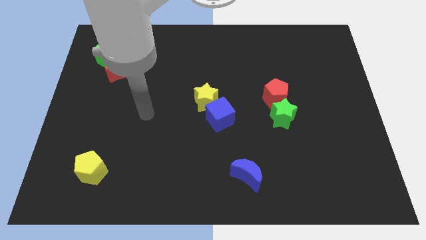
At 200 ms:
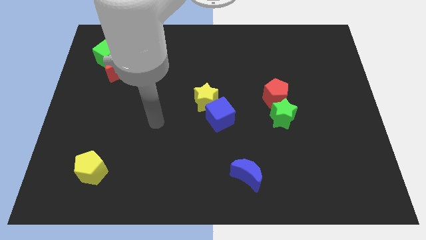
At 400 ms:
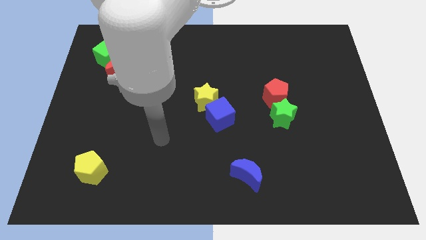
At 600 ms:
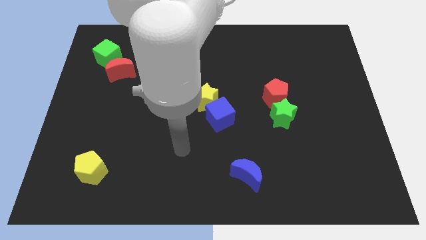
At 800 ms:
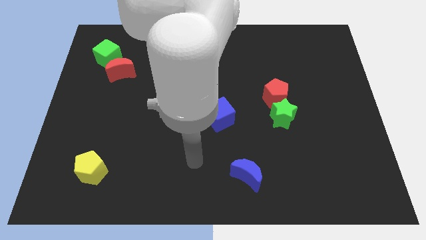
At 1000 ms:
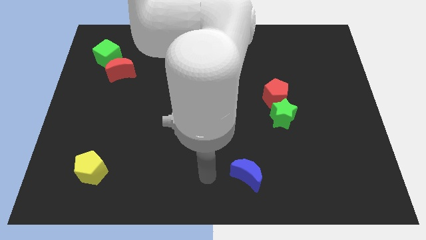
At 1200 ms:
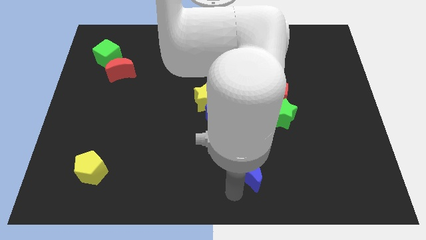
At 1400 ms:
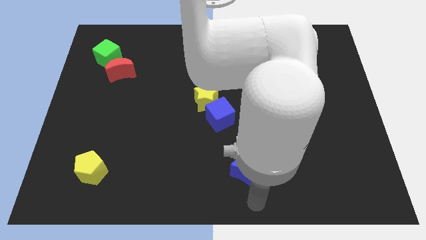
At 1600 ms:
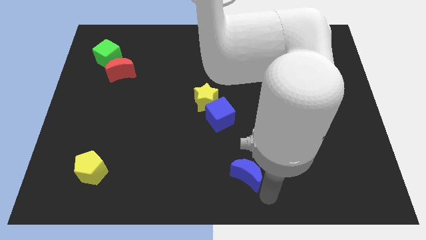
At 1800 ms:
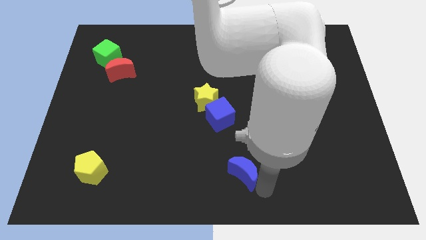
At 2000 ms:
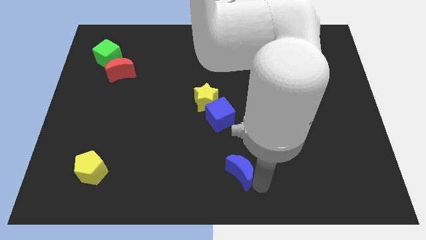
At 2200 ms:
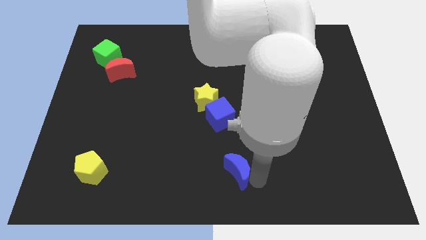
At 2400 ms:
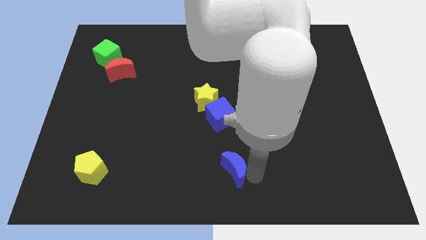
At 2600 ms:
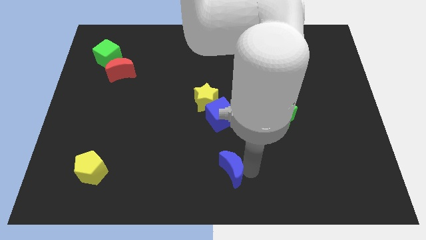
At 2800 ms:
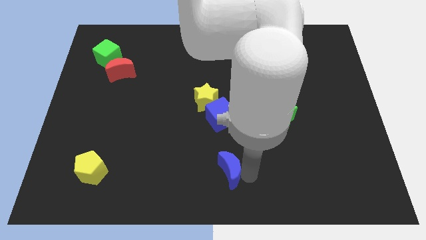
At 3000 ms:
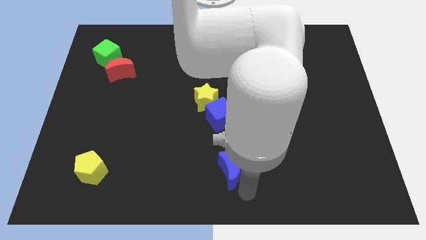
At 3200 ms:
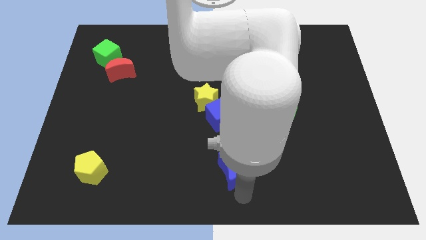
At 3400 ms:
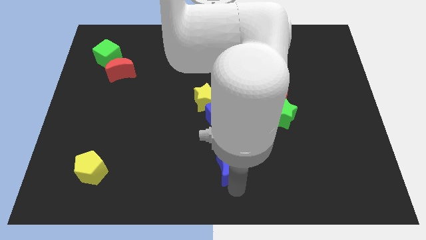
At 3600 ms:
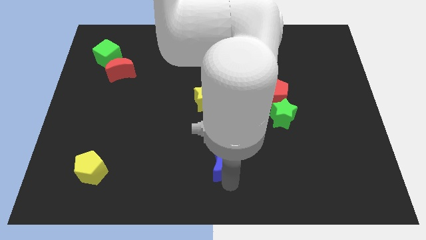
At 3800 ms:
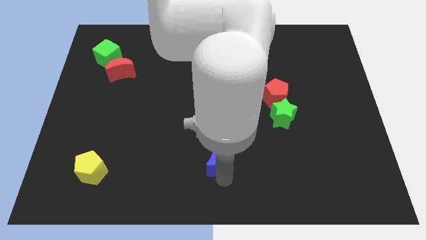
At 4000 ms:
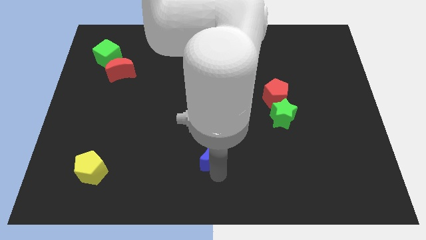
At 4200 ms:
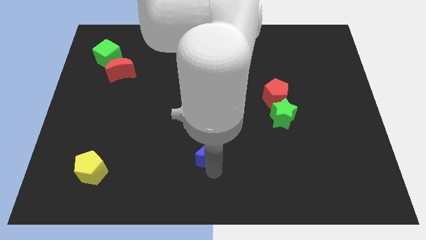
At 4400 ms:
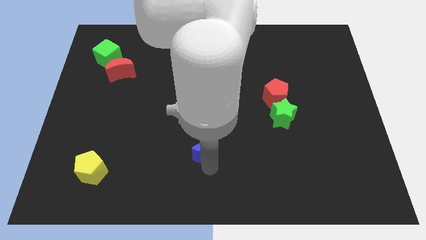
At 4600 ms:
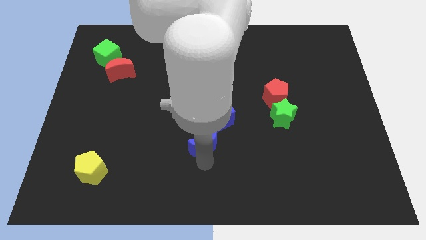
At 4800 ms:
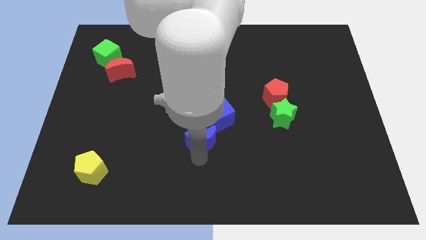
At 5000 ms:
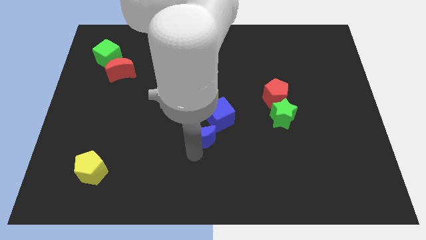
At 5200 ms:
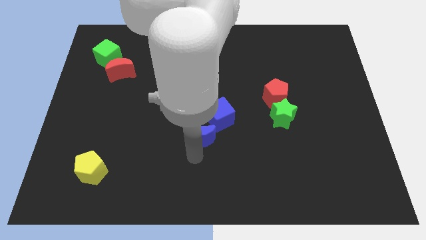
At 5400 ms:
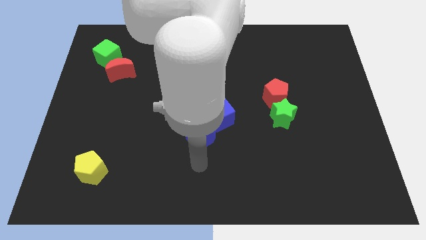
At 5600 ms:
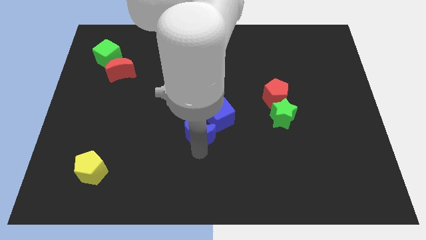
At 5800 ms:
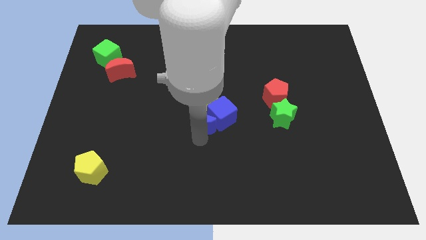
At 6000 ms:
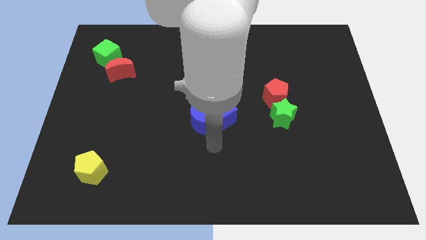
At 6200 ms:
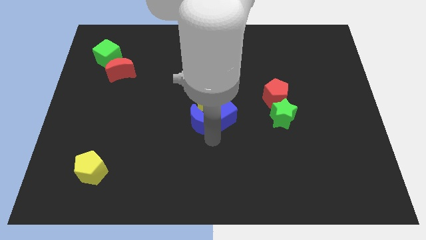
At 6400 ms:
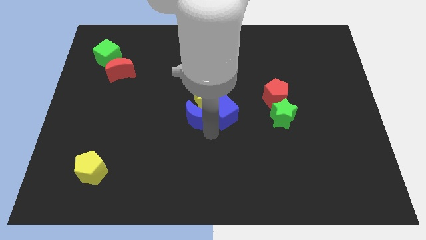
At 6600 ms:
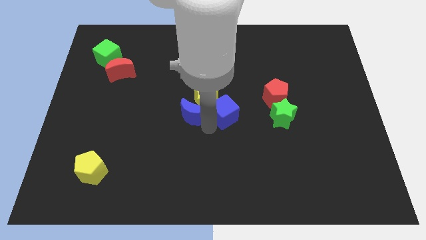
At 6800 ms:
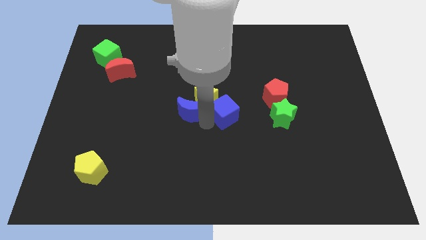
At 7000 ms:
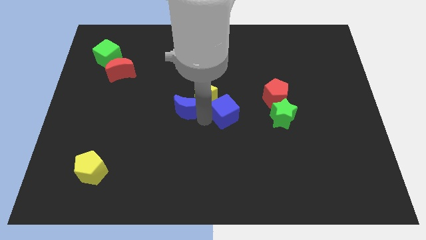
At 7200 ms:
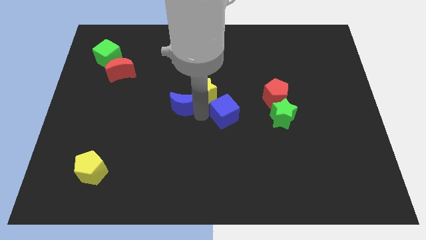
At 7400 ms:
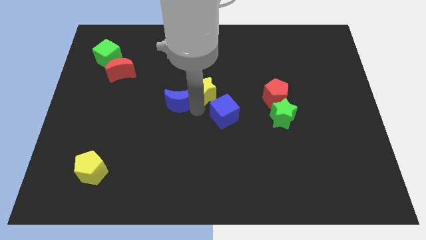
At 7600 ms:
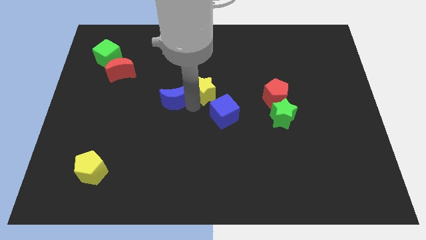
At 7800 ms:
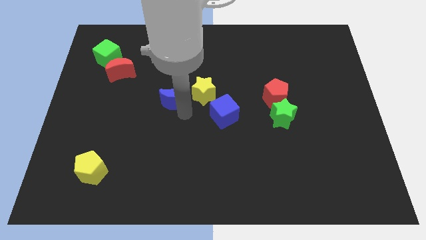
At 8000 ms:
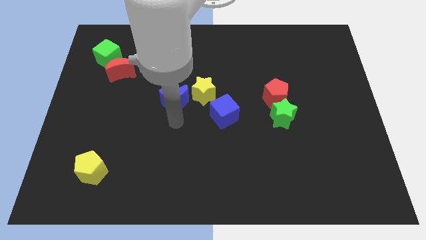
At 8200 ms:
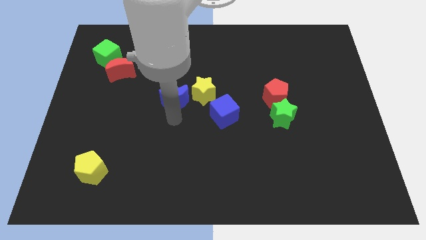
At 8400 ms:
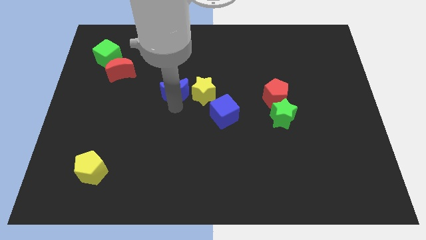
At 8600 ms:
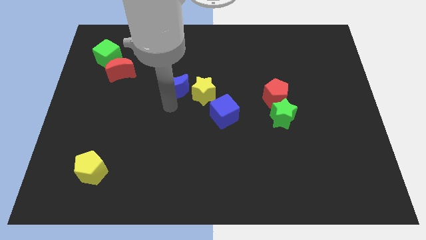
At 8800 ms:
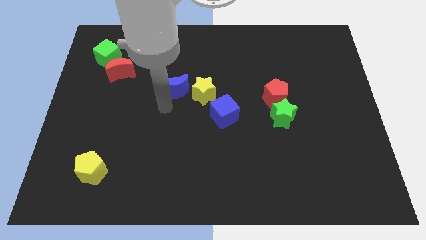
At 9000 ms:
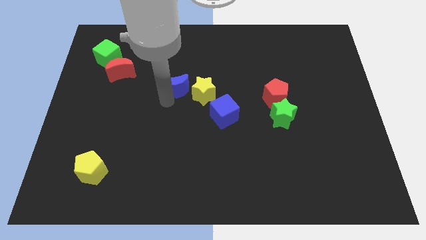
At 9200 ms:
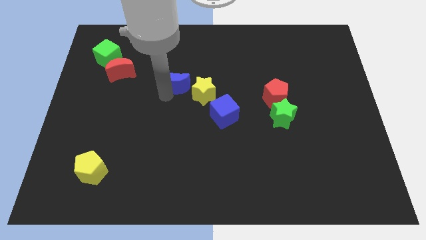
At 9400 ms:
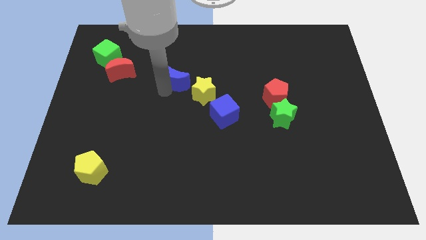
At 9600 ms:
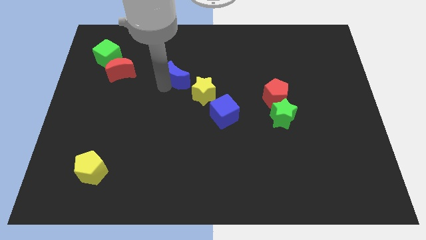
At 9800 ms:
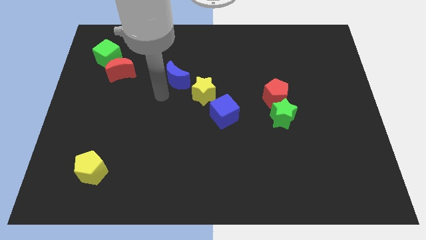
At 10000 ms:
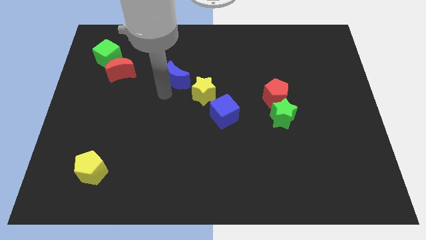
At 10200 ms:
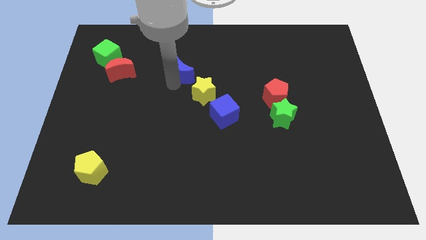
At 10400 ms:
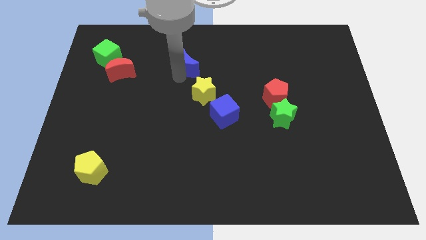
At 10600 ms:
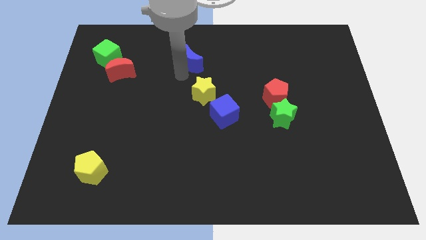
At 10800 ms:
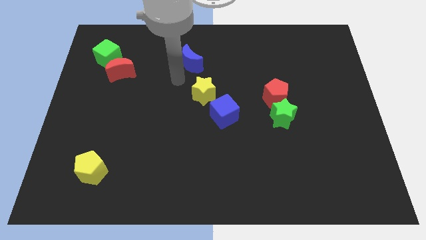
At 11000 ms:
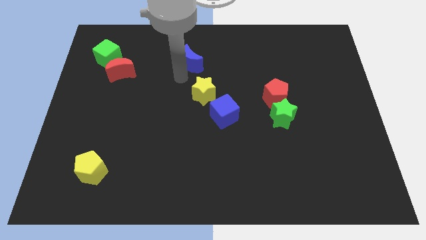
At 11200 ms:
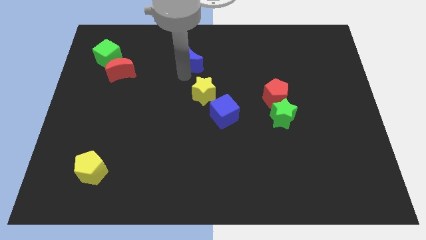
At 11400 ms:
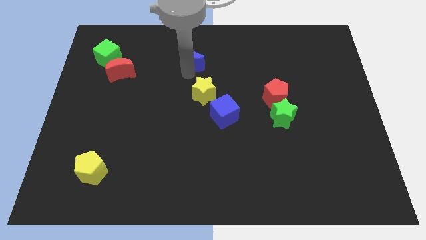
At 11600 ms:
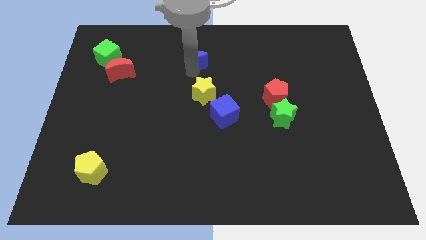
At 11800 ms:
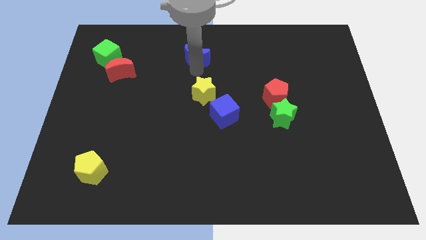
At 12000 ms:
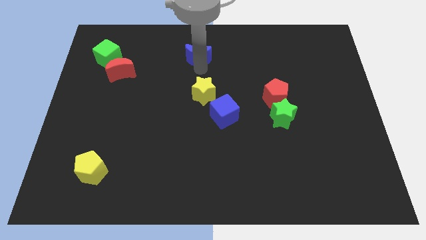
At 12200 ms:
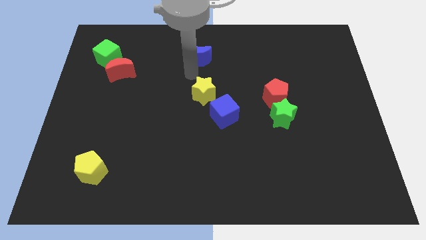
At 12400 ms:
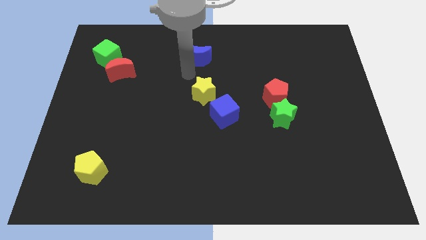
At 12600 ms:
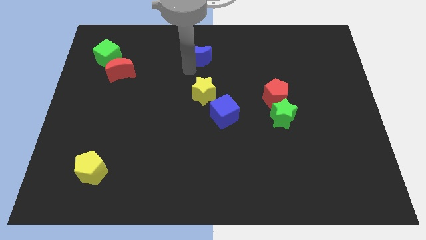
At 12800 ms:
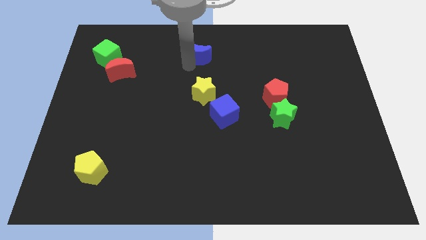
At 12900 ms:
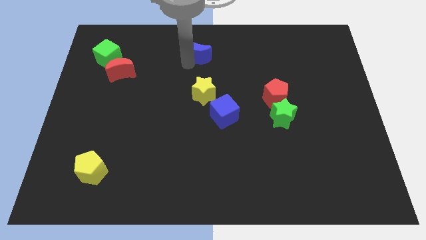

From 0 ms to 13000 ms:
move the blue moon to the top side

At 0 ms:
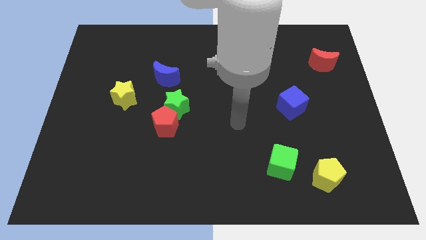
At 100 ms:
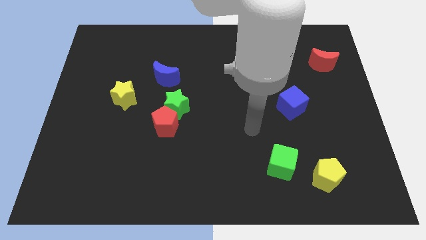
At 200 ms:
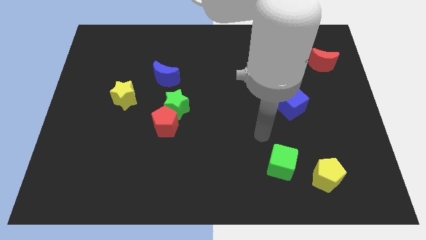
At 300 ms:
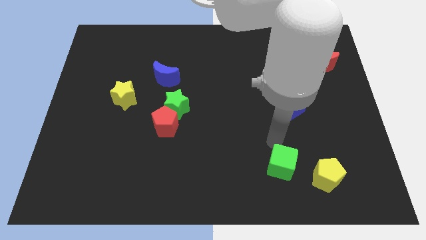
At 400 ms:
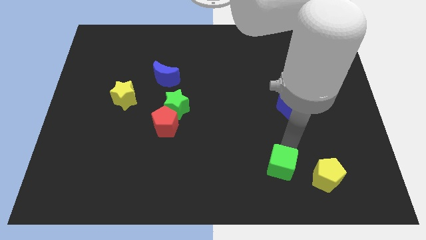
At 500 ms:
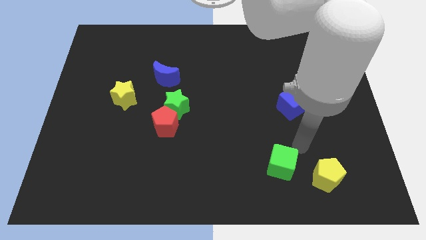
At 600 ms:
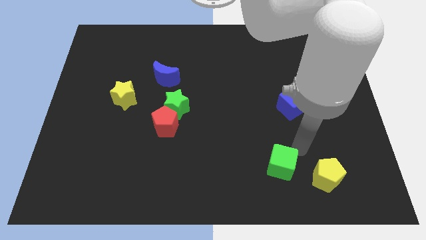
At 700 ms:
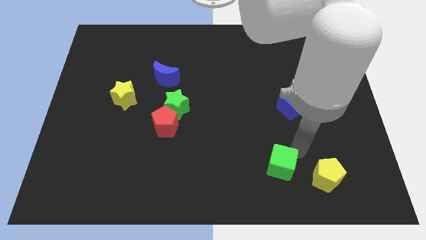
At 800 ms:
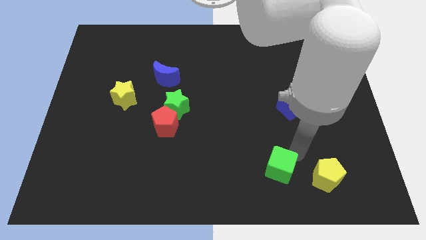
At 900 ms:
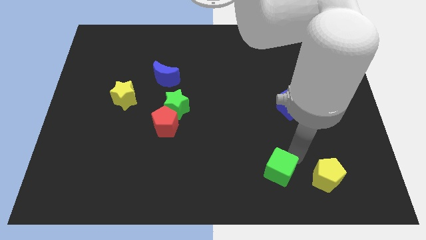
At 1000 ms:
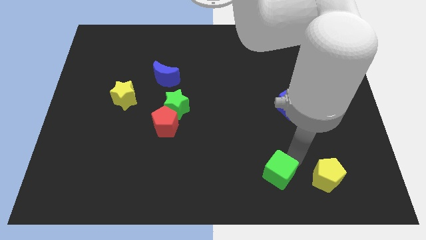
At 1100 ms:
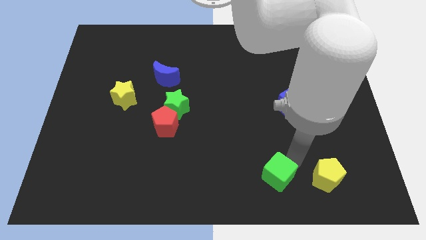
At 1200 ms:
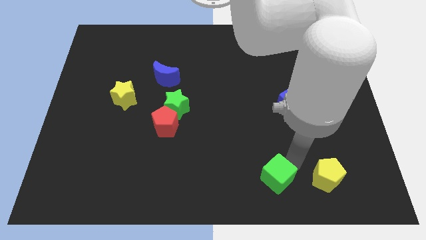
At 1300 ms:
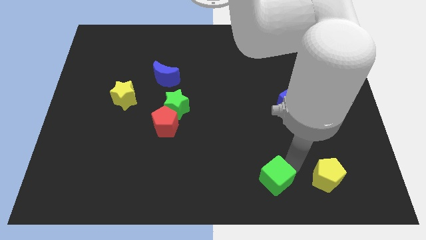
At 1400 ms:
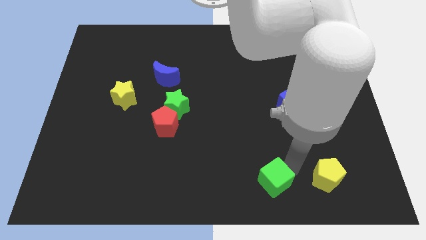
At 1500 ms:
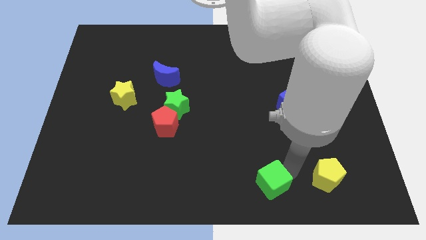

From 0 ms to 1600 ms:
slide the green cube to the bottom
